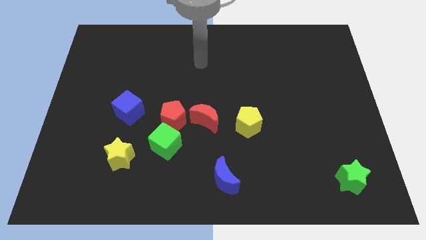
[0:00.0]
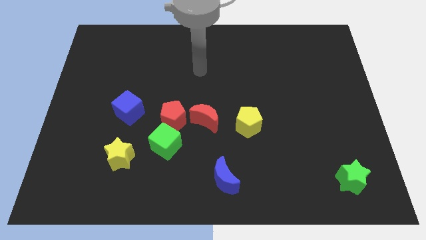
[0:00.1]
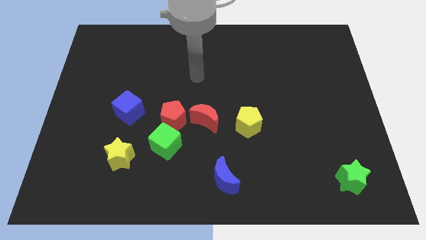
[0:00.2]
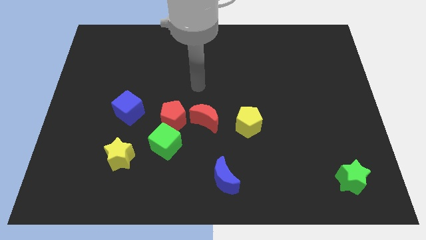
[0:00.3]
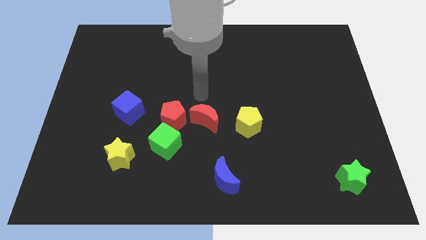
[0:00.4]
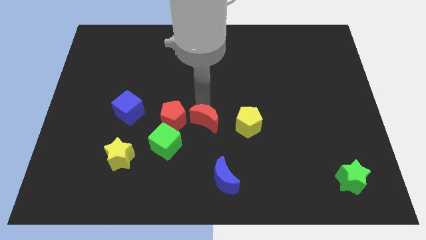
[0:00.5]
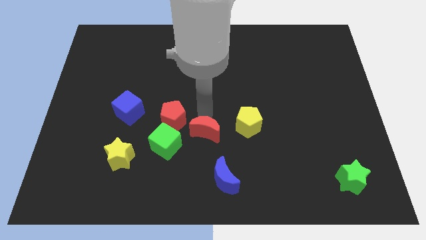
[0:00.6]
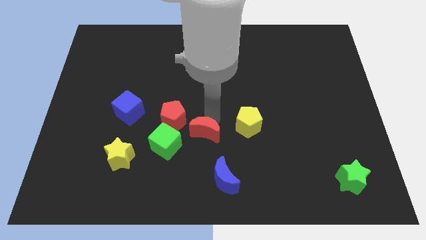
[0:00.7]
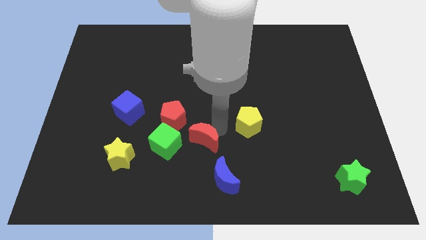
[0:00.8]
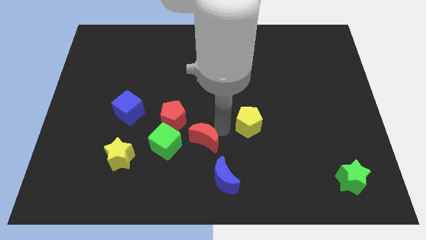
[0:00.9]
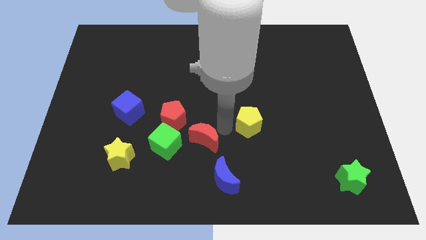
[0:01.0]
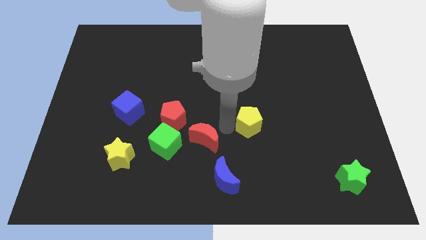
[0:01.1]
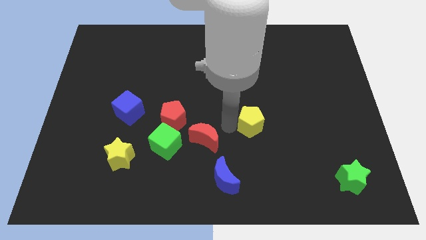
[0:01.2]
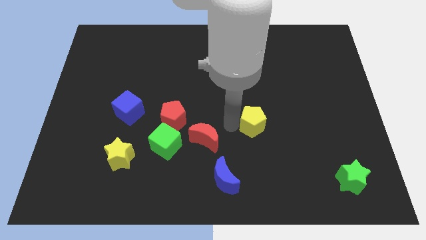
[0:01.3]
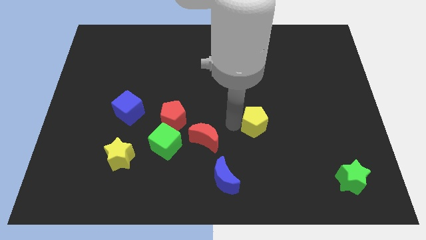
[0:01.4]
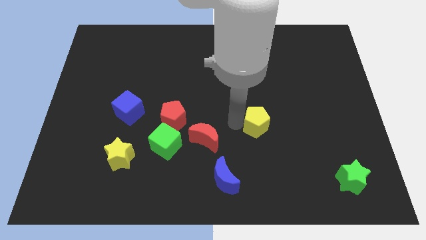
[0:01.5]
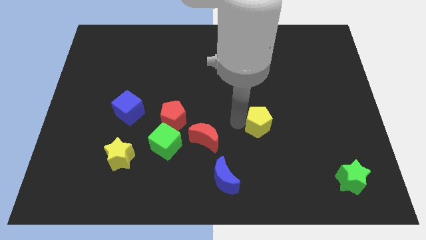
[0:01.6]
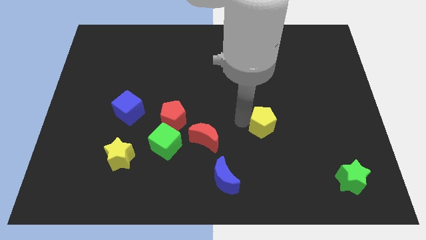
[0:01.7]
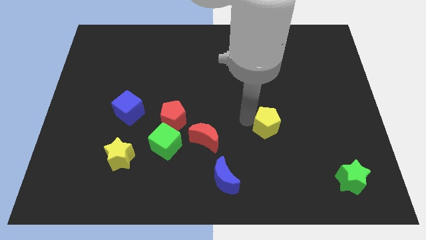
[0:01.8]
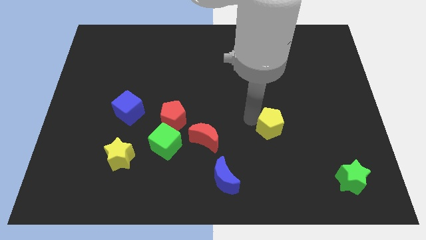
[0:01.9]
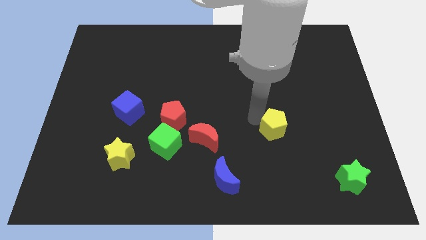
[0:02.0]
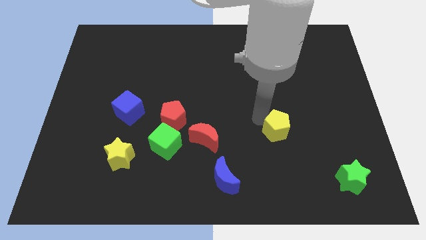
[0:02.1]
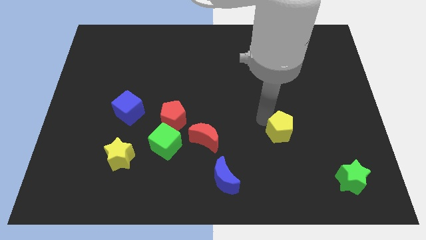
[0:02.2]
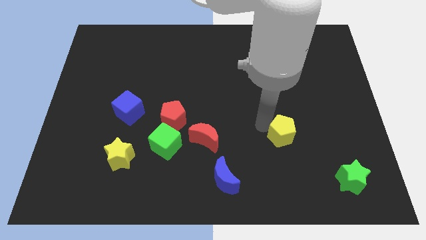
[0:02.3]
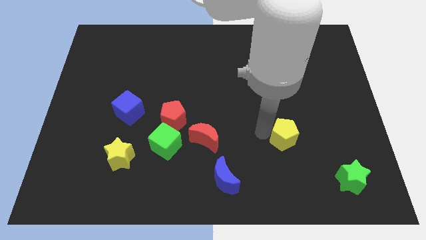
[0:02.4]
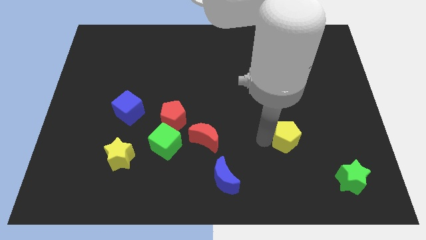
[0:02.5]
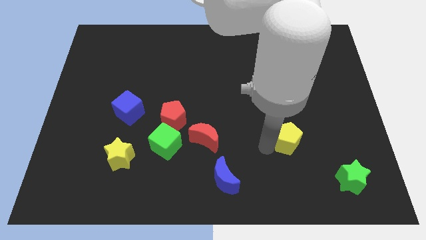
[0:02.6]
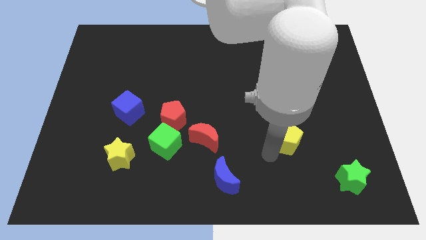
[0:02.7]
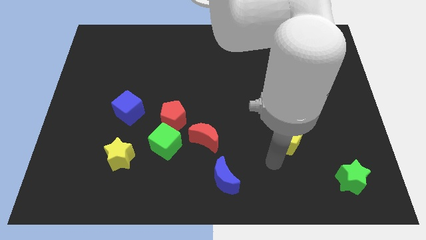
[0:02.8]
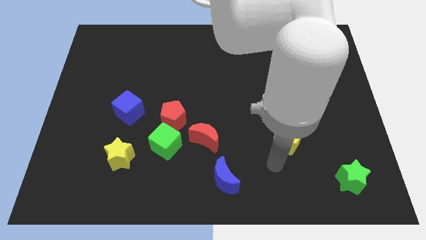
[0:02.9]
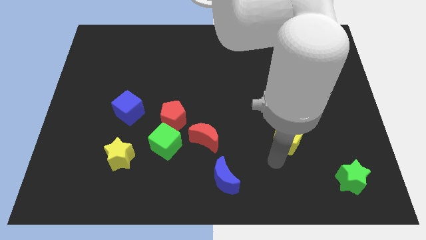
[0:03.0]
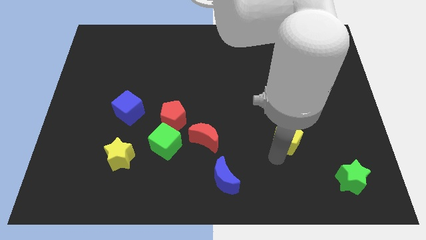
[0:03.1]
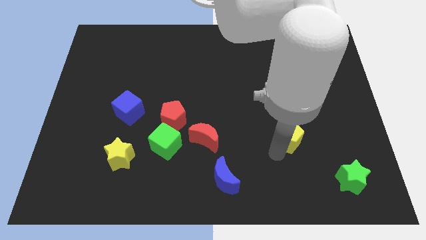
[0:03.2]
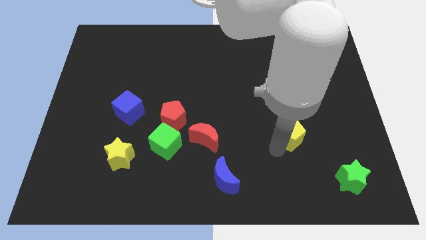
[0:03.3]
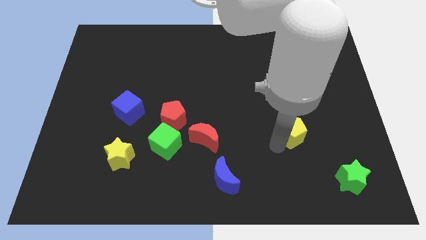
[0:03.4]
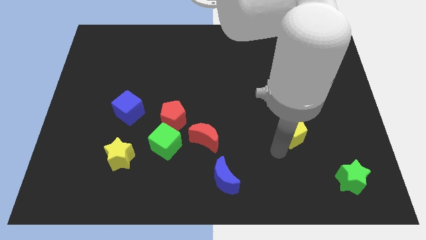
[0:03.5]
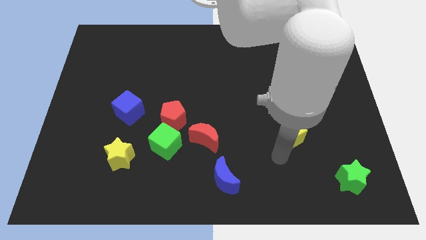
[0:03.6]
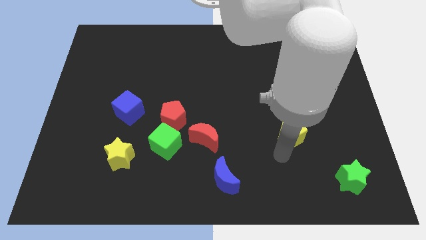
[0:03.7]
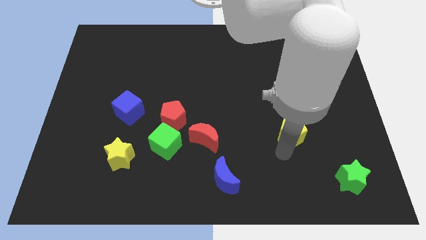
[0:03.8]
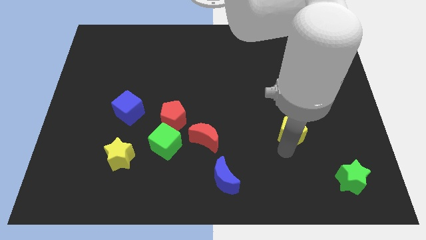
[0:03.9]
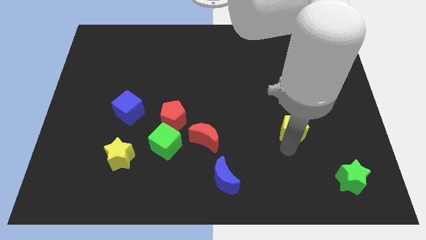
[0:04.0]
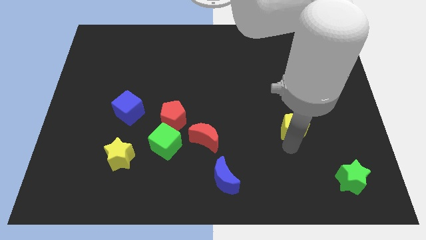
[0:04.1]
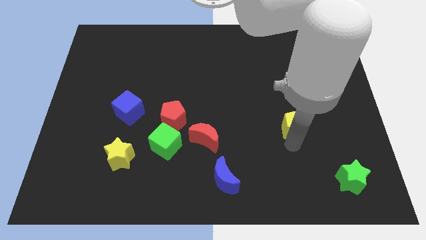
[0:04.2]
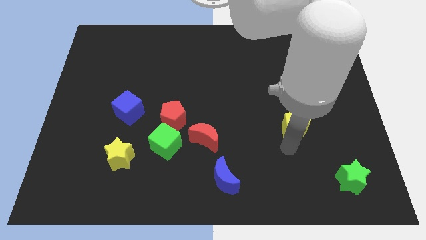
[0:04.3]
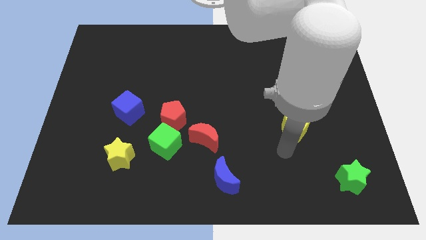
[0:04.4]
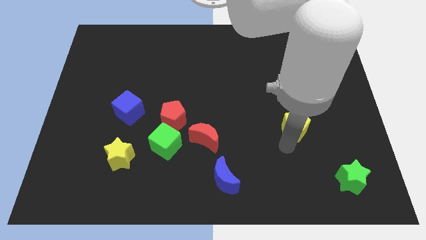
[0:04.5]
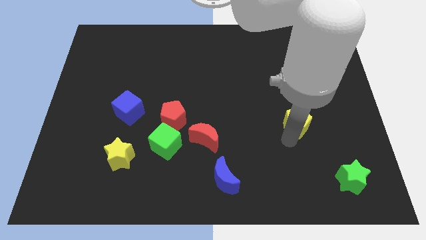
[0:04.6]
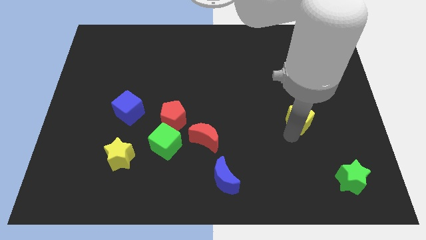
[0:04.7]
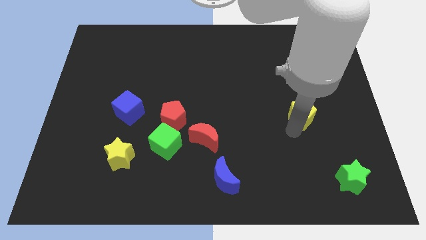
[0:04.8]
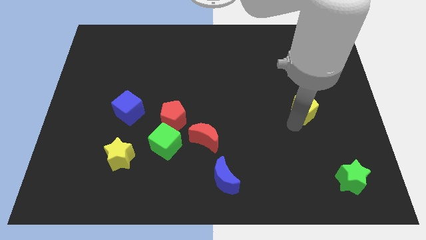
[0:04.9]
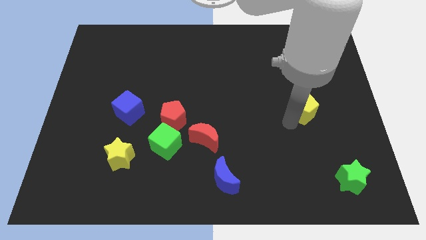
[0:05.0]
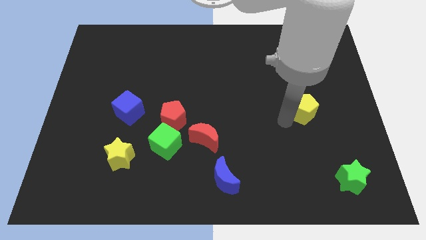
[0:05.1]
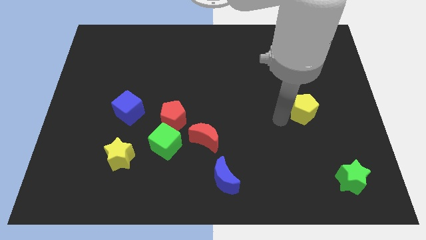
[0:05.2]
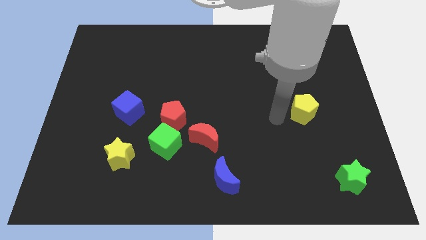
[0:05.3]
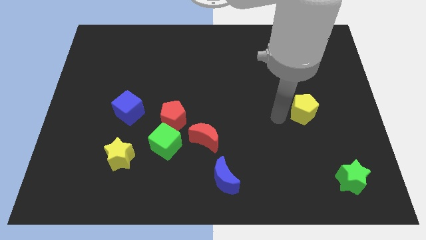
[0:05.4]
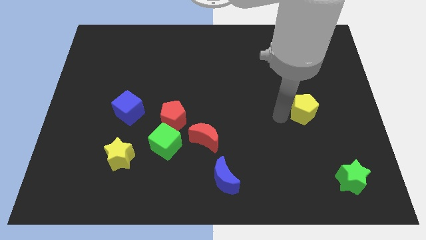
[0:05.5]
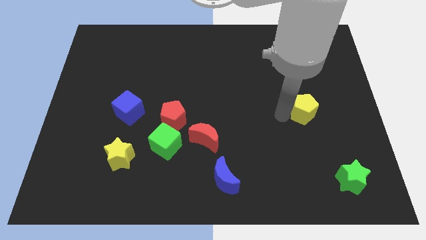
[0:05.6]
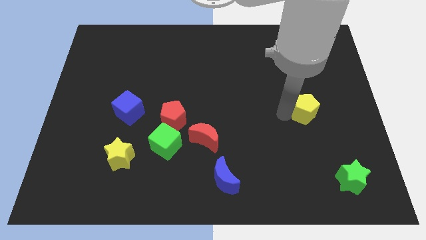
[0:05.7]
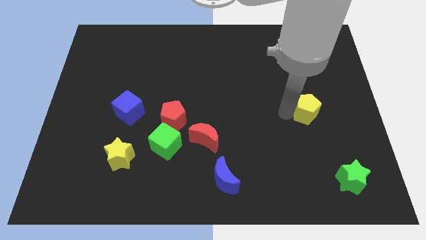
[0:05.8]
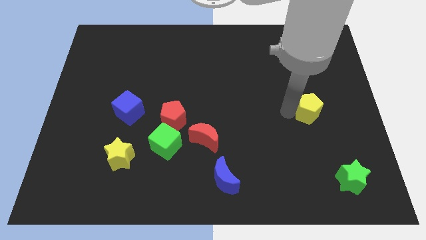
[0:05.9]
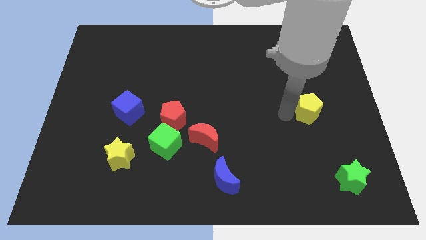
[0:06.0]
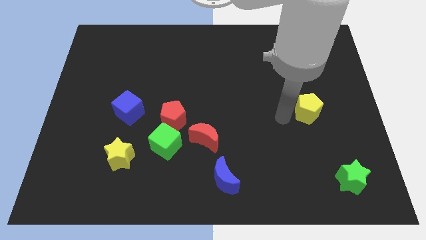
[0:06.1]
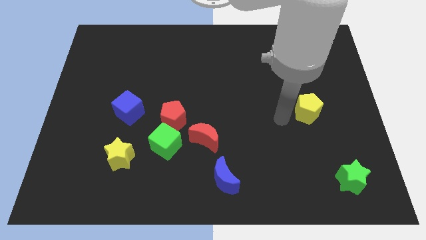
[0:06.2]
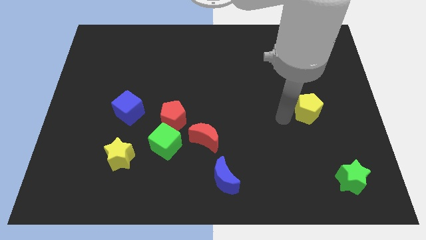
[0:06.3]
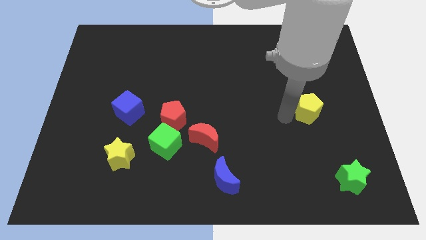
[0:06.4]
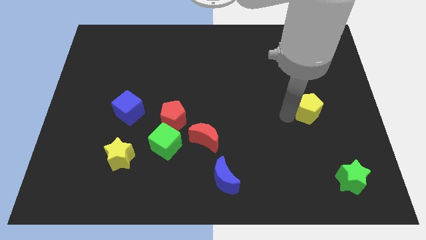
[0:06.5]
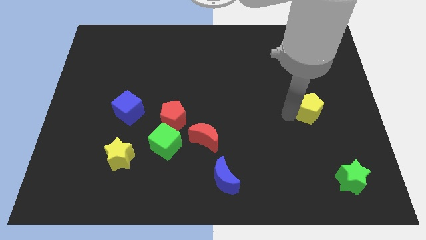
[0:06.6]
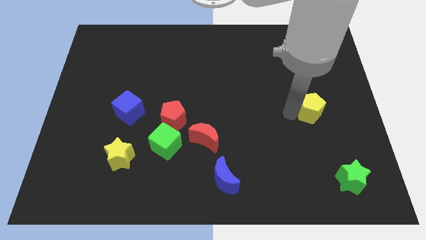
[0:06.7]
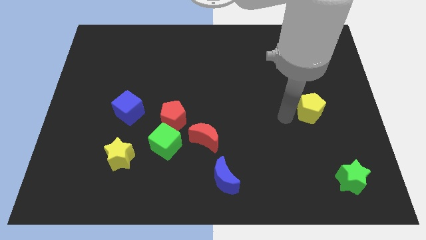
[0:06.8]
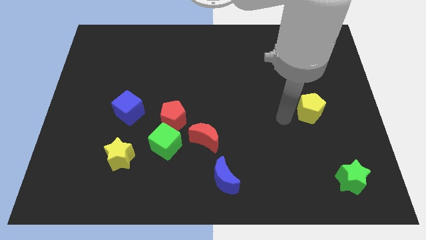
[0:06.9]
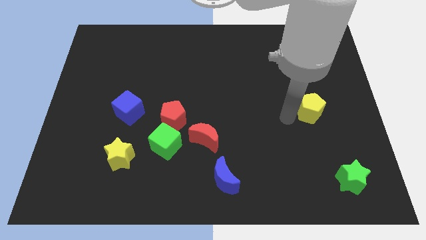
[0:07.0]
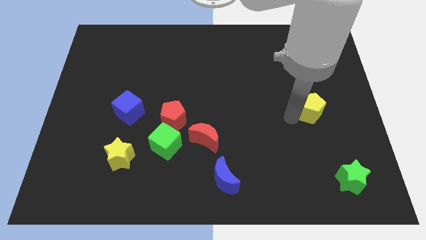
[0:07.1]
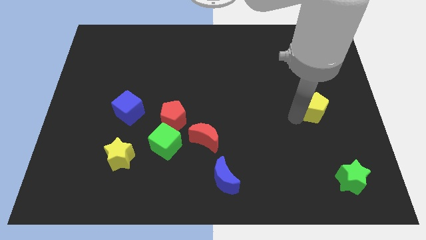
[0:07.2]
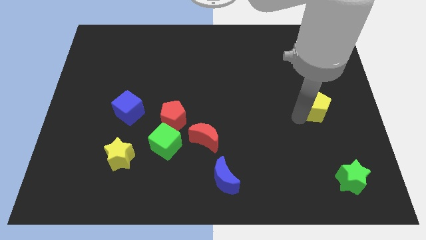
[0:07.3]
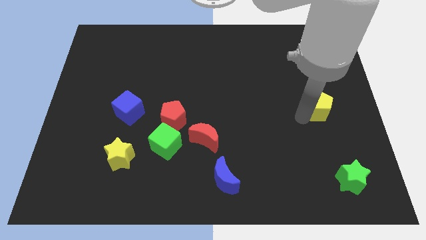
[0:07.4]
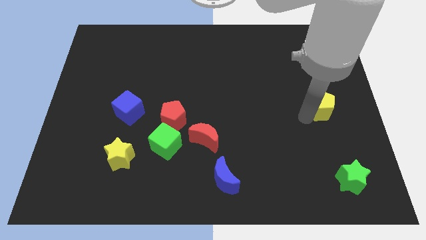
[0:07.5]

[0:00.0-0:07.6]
put the yellow pentagon to the center right
